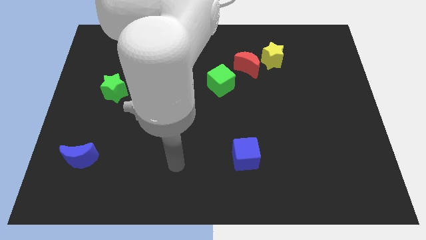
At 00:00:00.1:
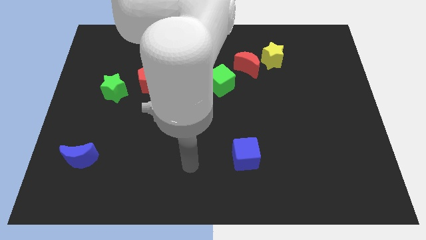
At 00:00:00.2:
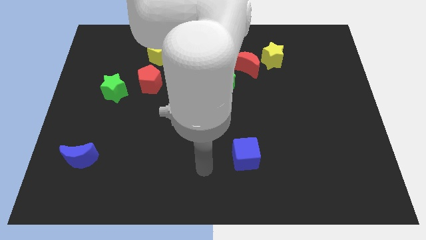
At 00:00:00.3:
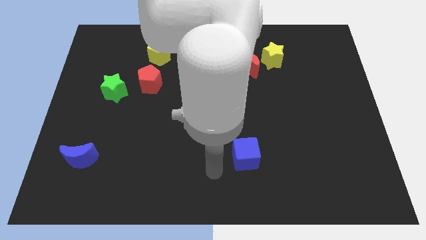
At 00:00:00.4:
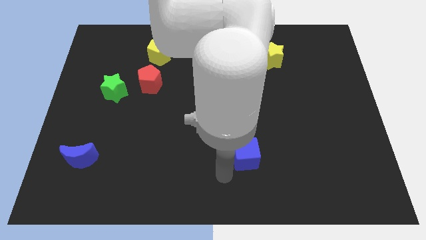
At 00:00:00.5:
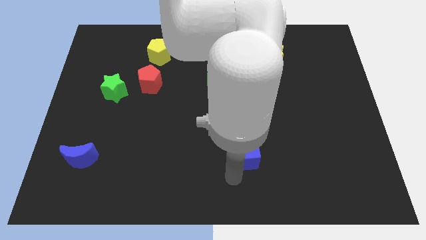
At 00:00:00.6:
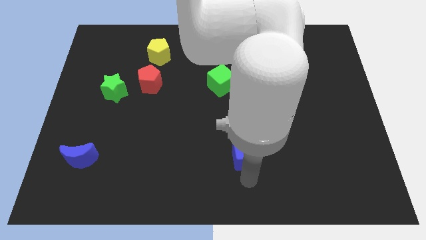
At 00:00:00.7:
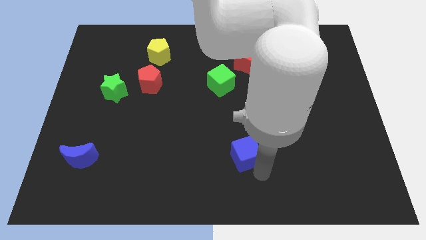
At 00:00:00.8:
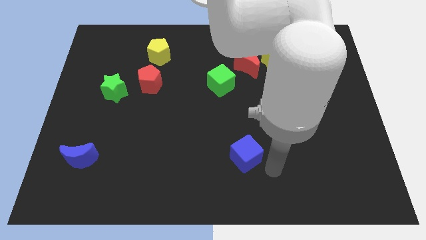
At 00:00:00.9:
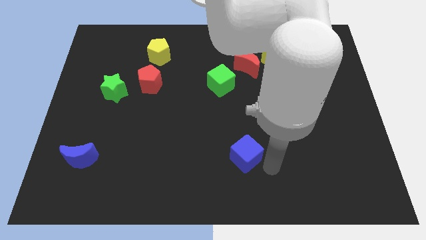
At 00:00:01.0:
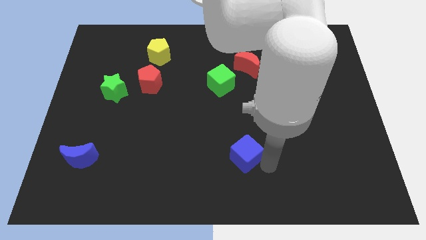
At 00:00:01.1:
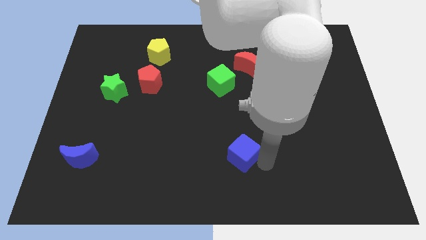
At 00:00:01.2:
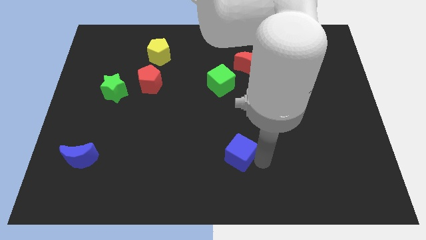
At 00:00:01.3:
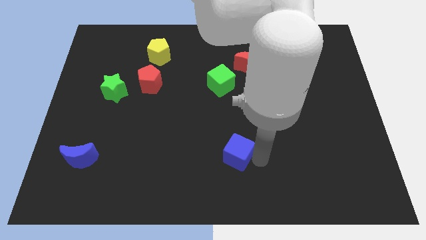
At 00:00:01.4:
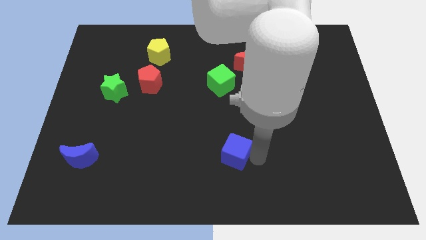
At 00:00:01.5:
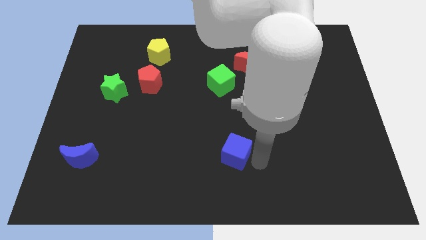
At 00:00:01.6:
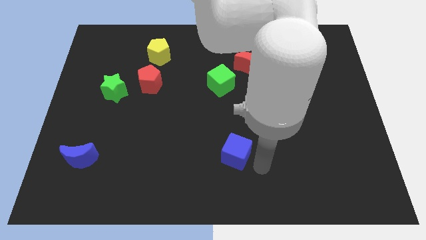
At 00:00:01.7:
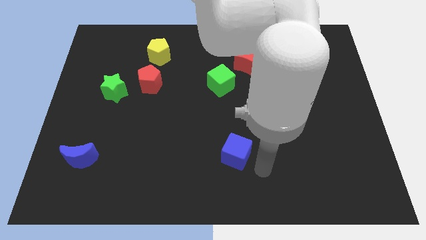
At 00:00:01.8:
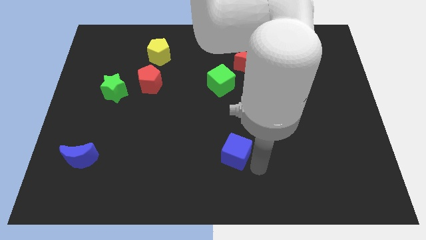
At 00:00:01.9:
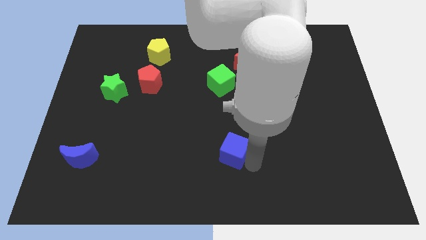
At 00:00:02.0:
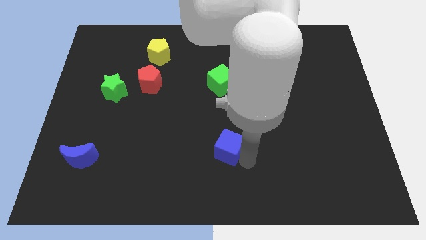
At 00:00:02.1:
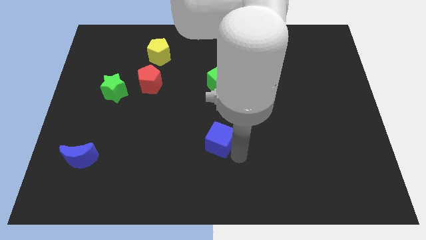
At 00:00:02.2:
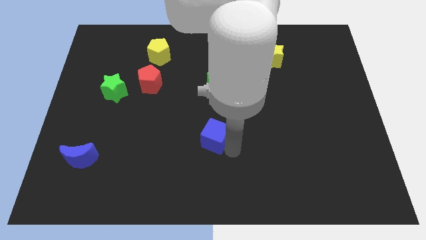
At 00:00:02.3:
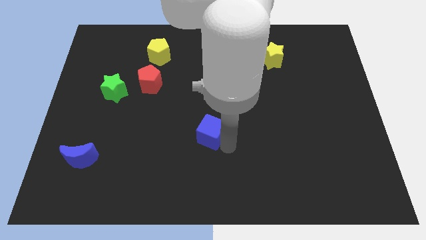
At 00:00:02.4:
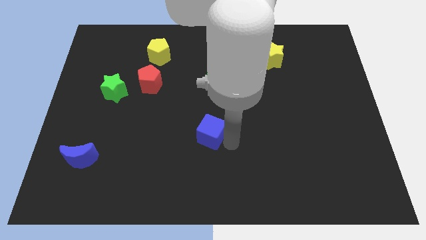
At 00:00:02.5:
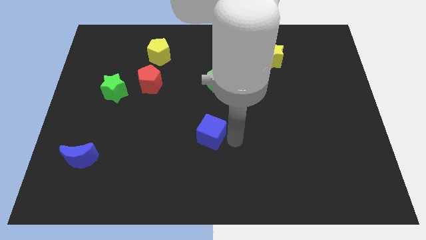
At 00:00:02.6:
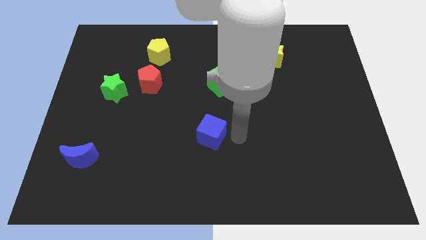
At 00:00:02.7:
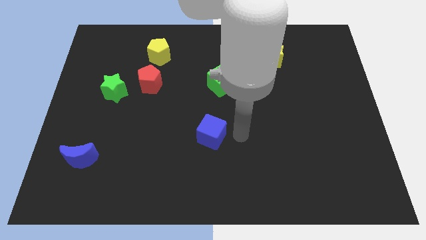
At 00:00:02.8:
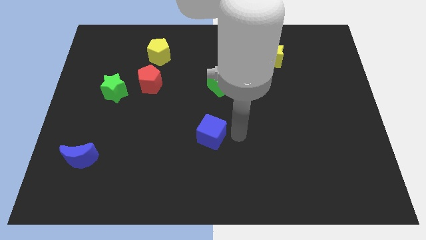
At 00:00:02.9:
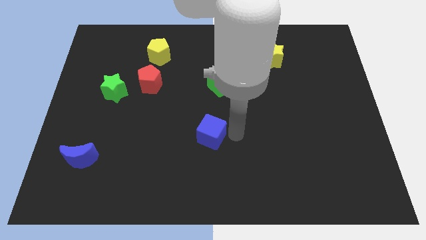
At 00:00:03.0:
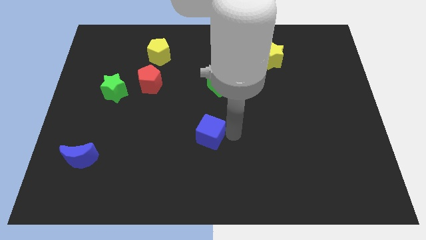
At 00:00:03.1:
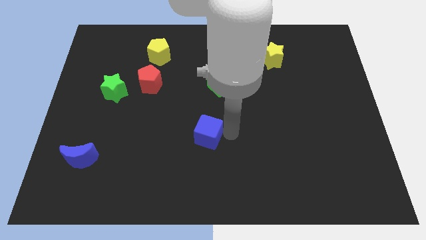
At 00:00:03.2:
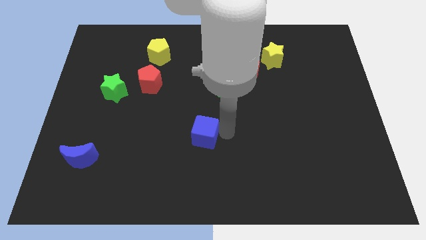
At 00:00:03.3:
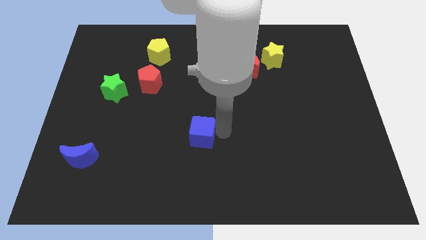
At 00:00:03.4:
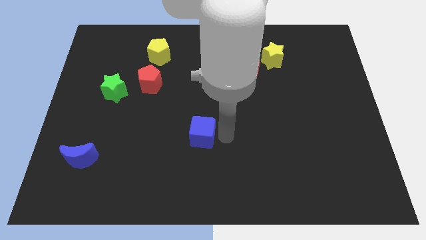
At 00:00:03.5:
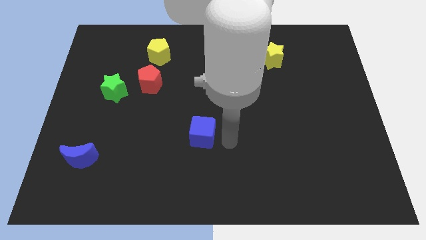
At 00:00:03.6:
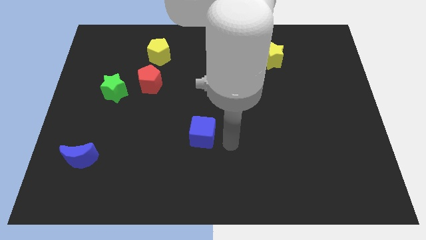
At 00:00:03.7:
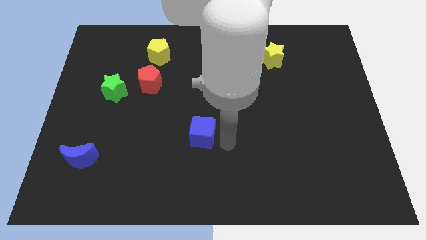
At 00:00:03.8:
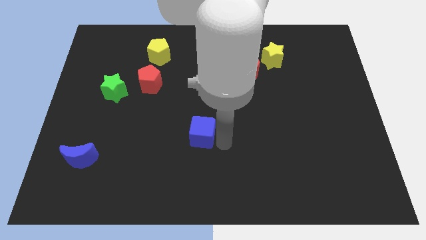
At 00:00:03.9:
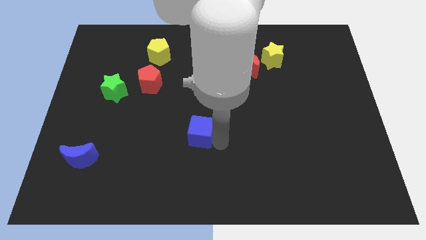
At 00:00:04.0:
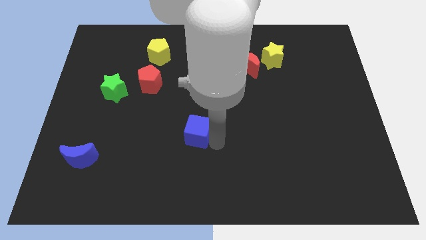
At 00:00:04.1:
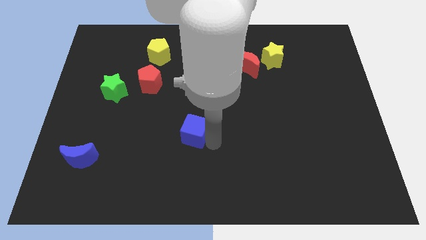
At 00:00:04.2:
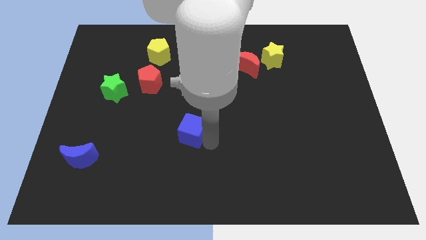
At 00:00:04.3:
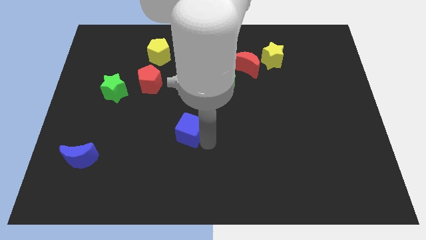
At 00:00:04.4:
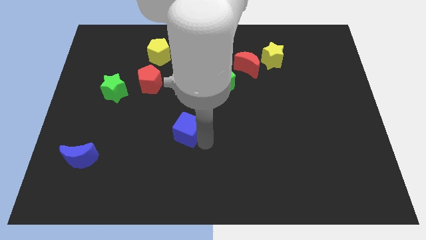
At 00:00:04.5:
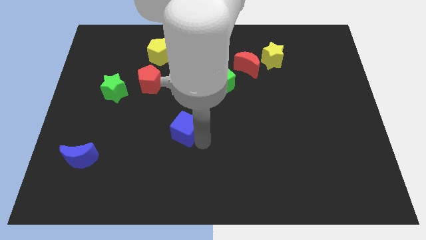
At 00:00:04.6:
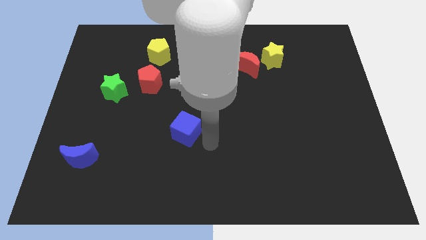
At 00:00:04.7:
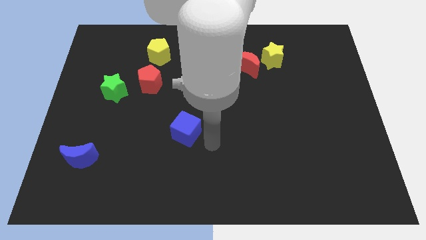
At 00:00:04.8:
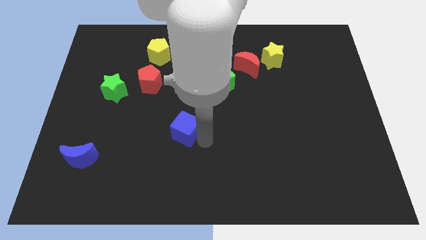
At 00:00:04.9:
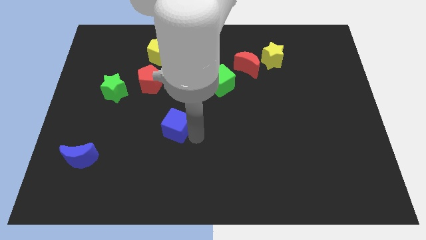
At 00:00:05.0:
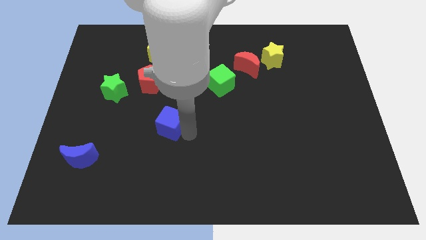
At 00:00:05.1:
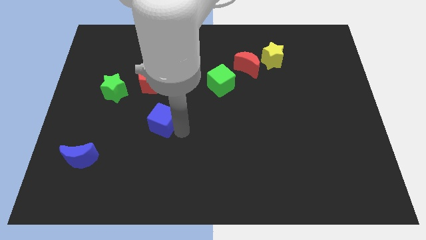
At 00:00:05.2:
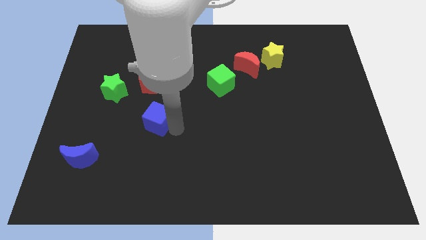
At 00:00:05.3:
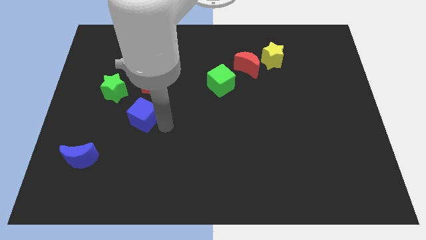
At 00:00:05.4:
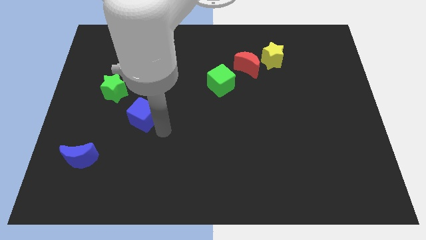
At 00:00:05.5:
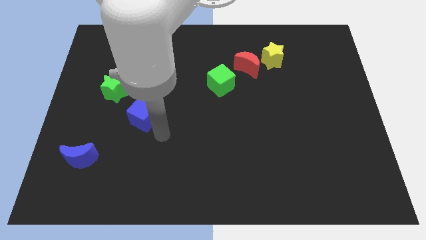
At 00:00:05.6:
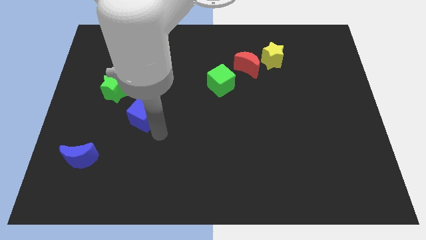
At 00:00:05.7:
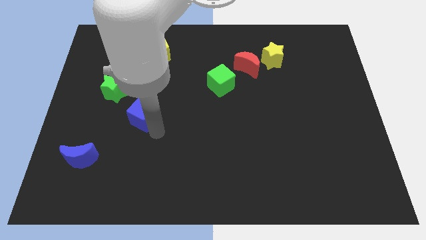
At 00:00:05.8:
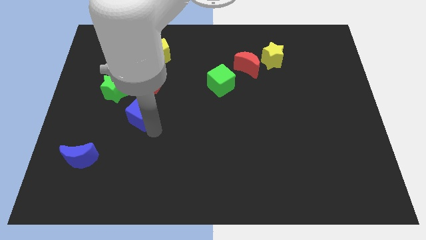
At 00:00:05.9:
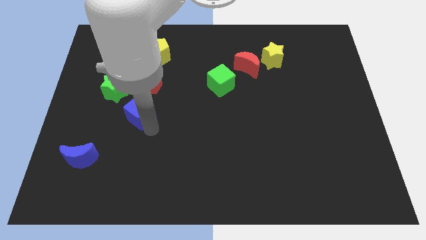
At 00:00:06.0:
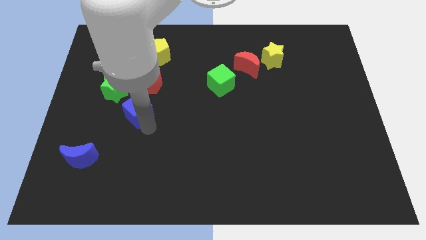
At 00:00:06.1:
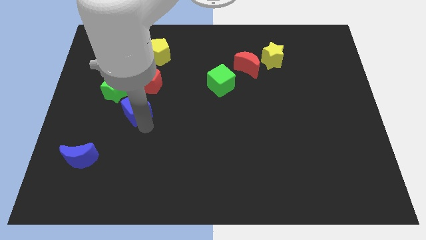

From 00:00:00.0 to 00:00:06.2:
put the blue cube diagonally down and to the left of the red pentagon

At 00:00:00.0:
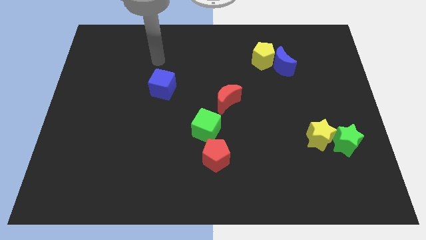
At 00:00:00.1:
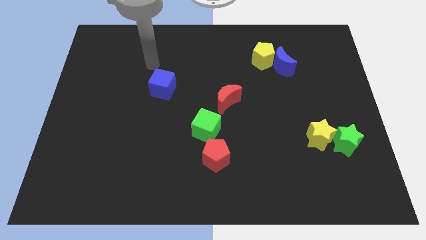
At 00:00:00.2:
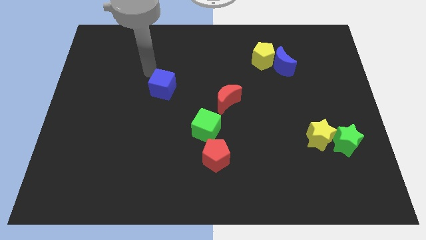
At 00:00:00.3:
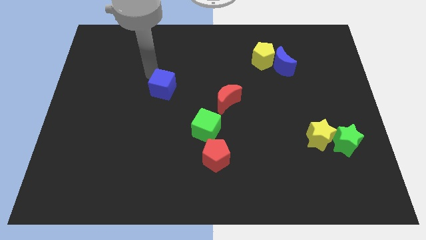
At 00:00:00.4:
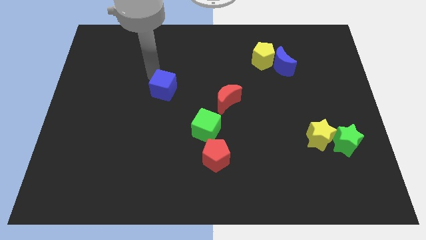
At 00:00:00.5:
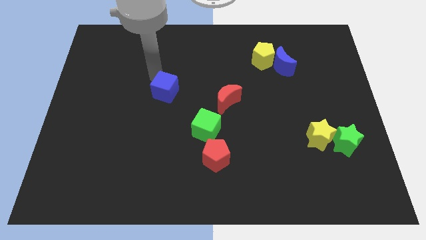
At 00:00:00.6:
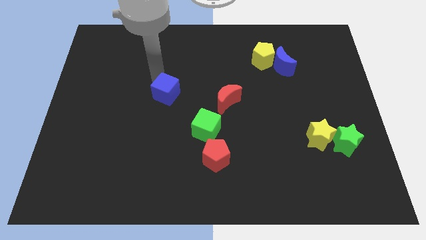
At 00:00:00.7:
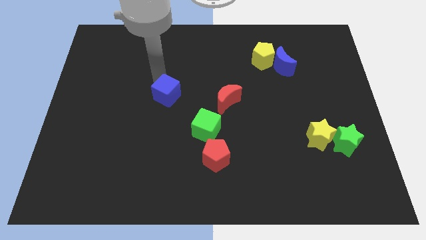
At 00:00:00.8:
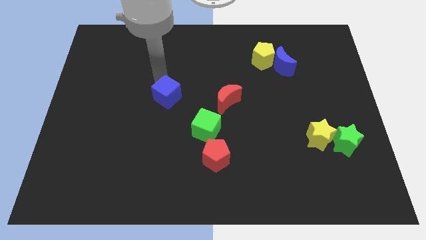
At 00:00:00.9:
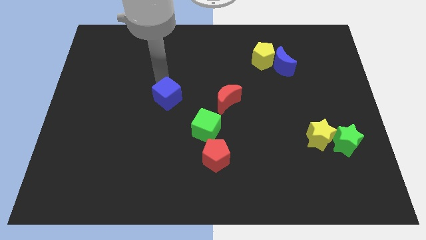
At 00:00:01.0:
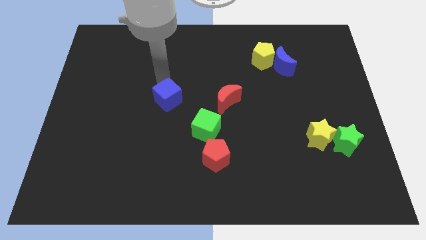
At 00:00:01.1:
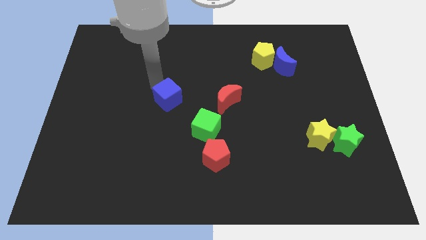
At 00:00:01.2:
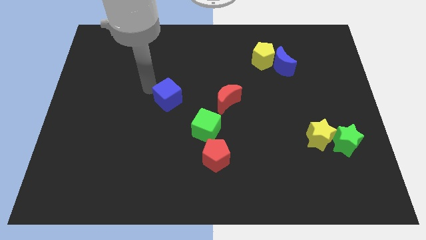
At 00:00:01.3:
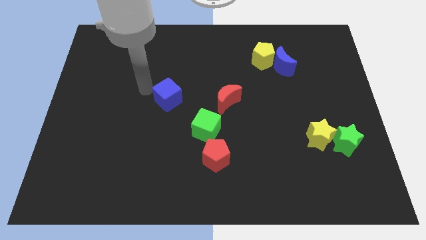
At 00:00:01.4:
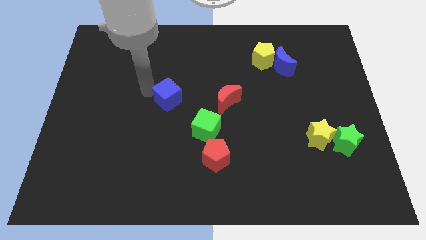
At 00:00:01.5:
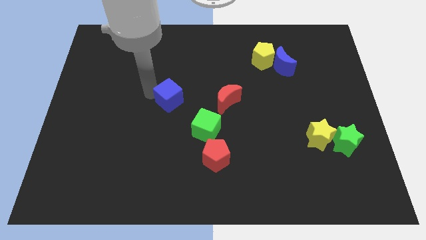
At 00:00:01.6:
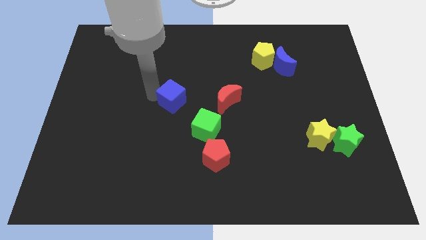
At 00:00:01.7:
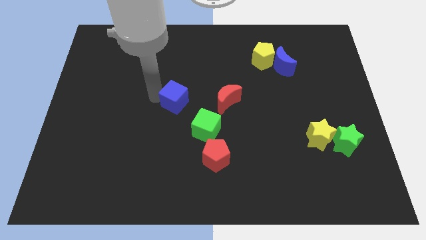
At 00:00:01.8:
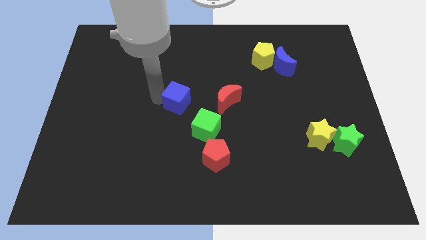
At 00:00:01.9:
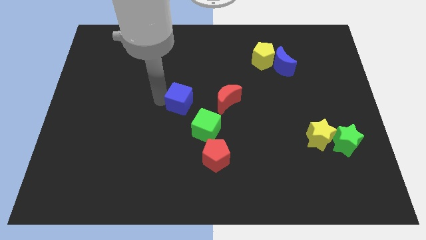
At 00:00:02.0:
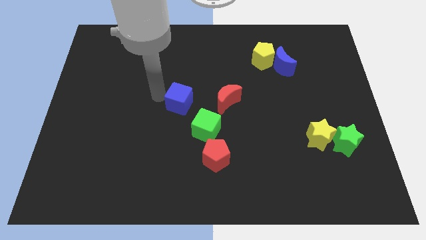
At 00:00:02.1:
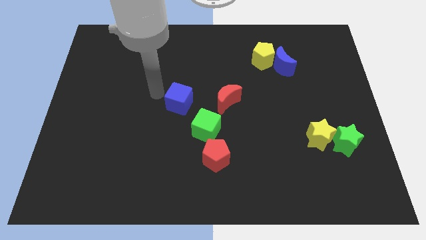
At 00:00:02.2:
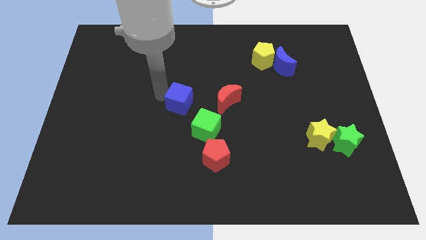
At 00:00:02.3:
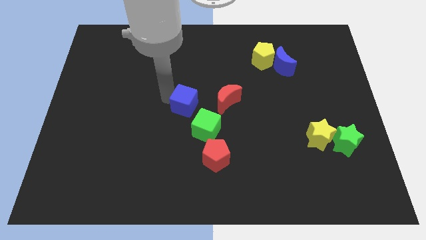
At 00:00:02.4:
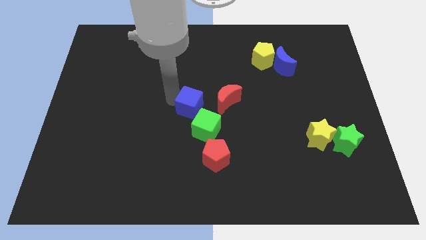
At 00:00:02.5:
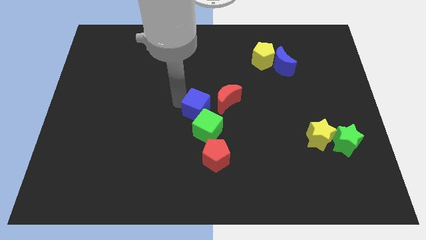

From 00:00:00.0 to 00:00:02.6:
move the blue cube to the top of the red pentagon
